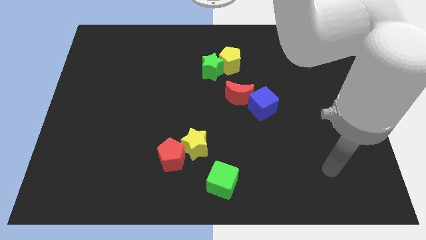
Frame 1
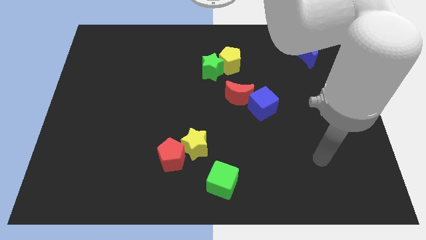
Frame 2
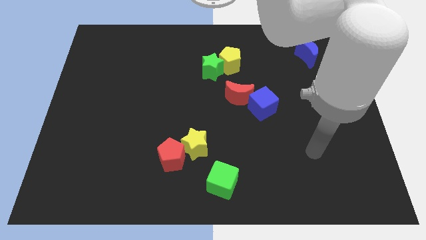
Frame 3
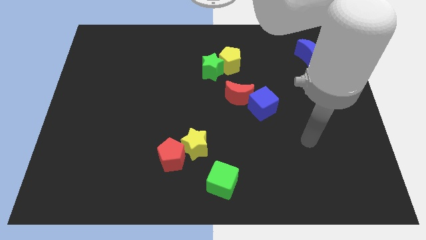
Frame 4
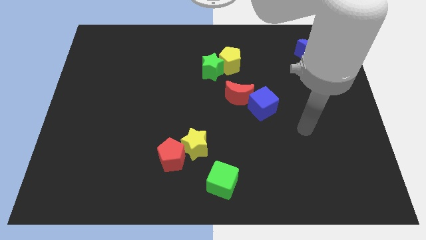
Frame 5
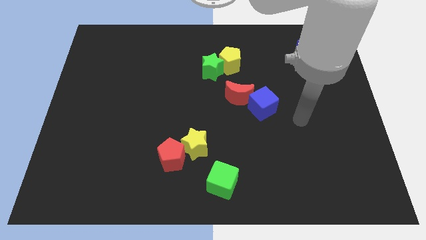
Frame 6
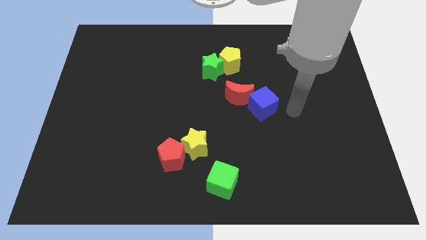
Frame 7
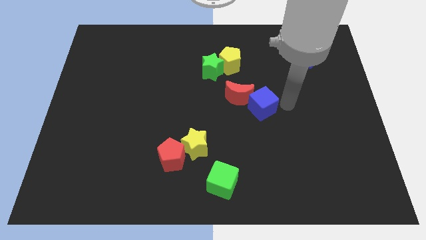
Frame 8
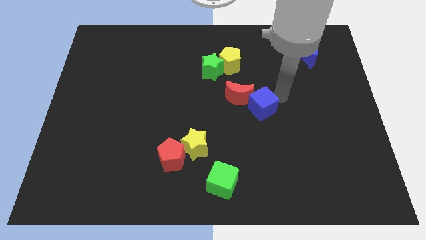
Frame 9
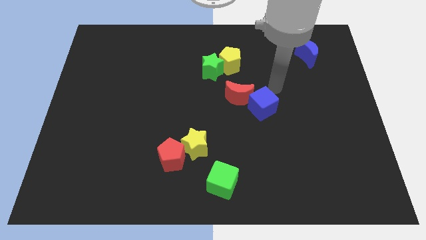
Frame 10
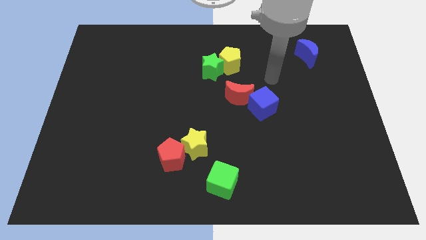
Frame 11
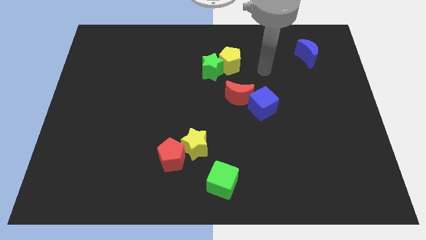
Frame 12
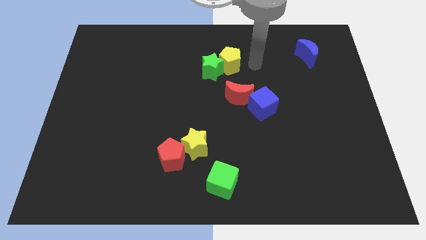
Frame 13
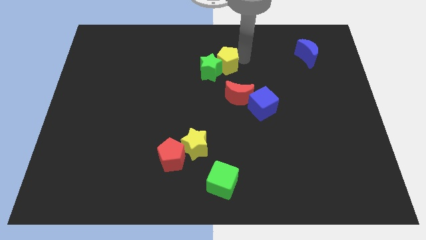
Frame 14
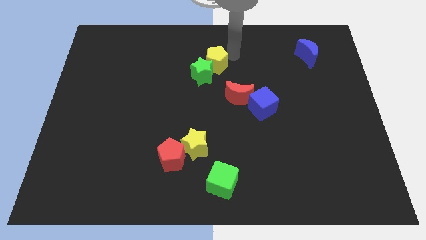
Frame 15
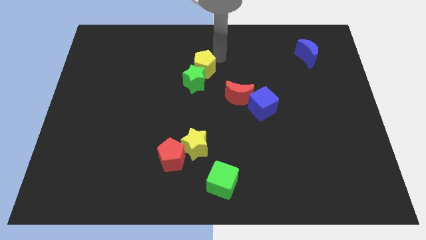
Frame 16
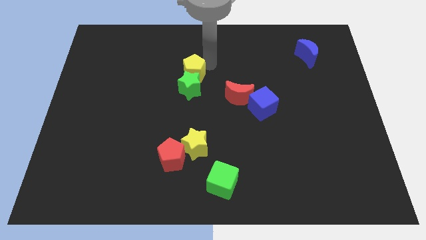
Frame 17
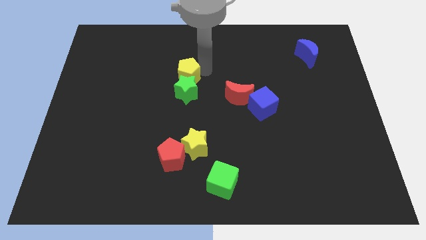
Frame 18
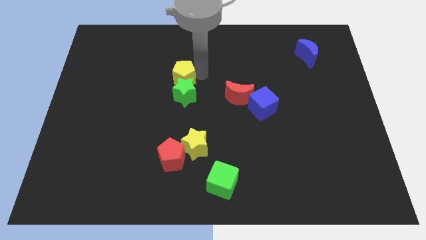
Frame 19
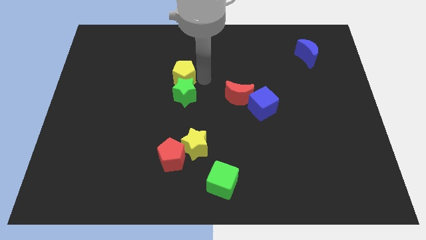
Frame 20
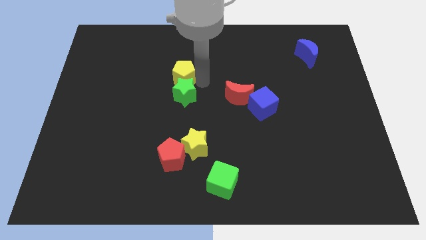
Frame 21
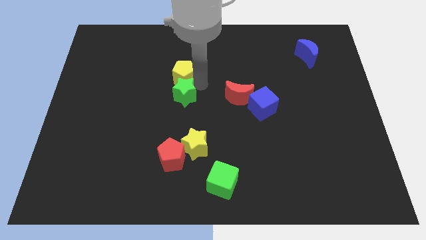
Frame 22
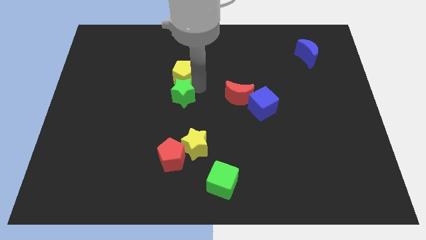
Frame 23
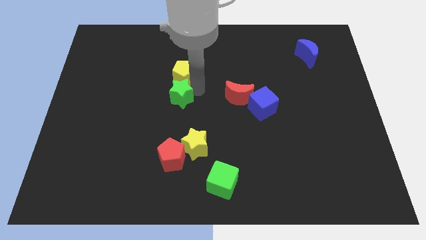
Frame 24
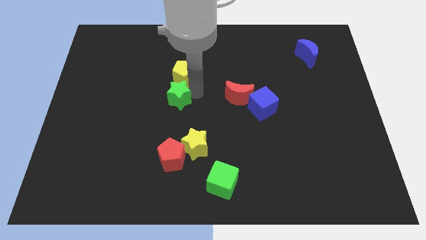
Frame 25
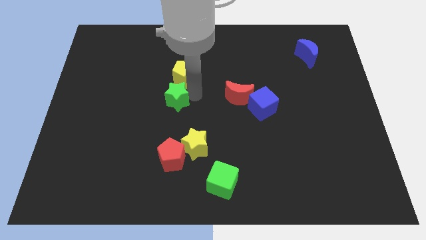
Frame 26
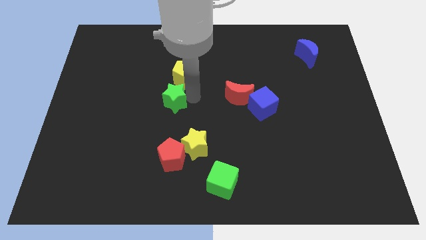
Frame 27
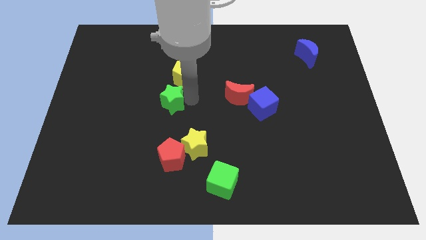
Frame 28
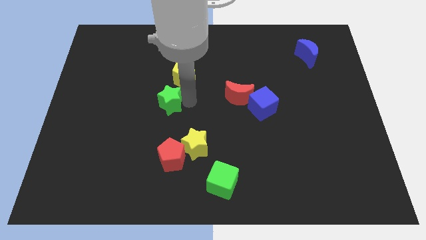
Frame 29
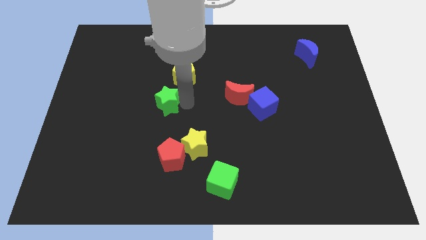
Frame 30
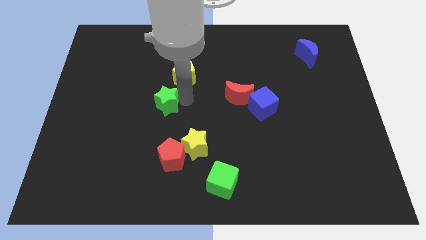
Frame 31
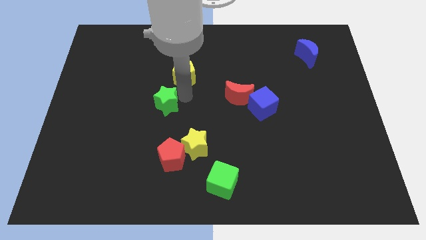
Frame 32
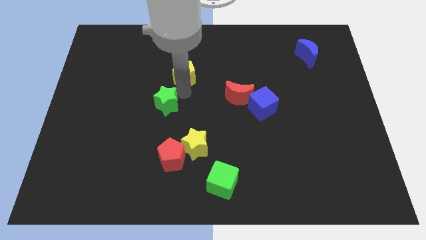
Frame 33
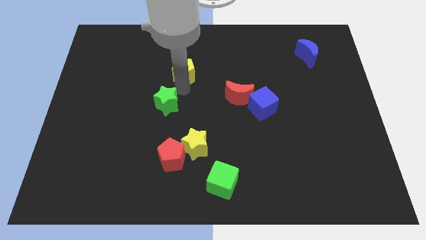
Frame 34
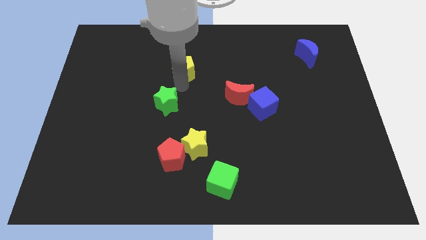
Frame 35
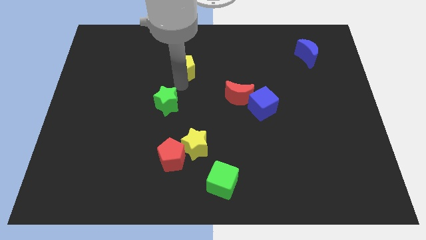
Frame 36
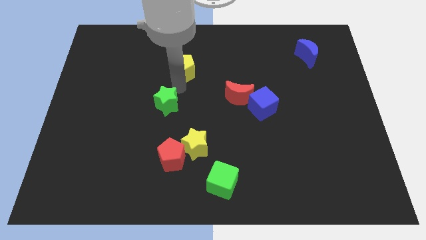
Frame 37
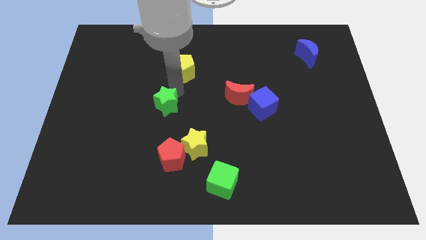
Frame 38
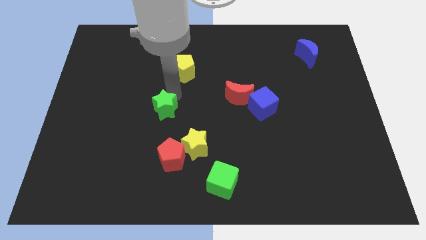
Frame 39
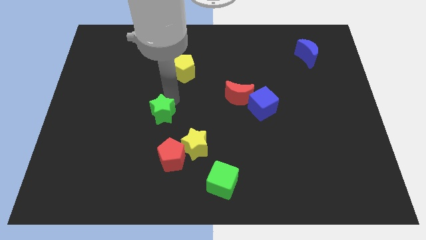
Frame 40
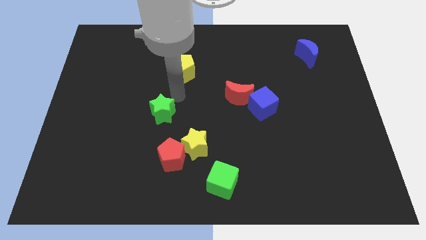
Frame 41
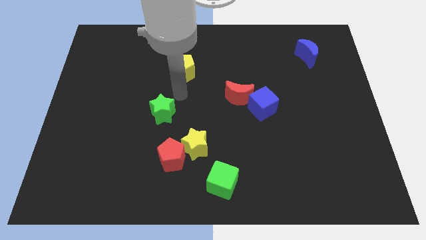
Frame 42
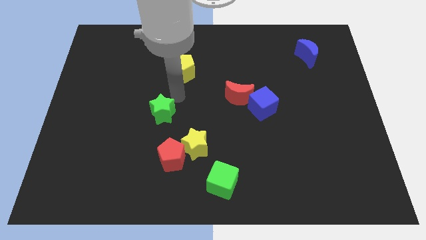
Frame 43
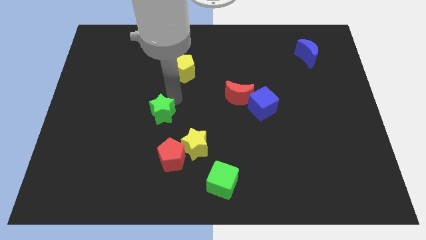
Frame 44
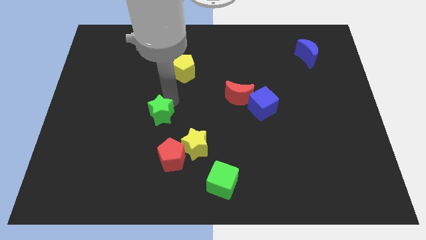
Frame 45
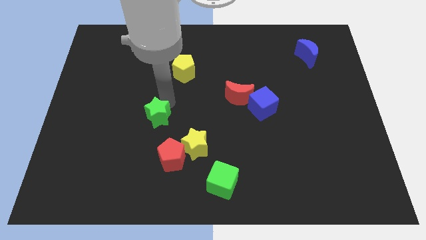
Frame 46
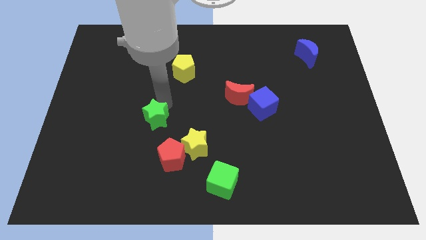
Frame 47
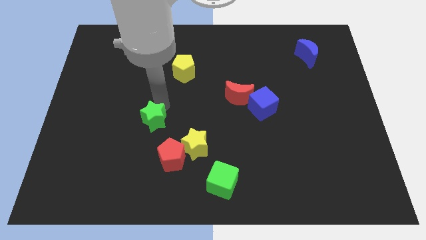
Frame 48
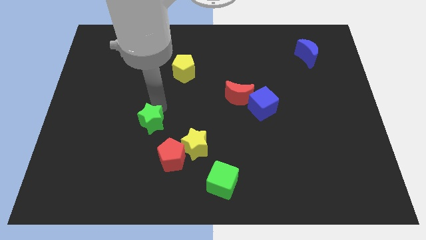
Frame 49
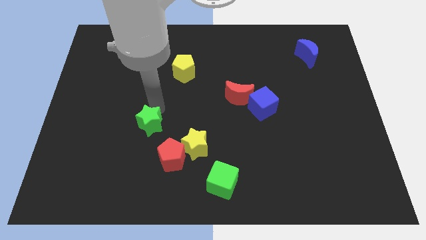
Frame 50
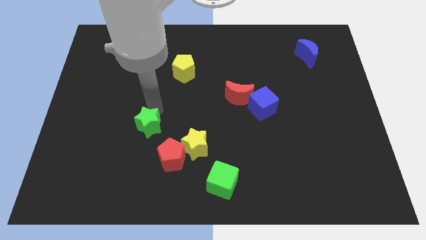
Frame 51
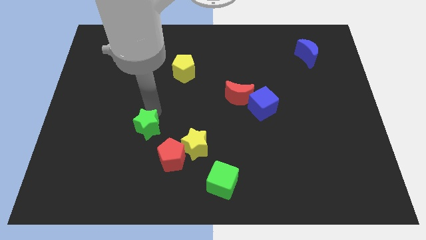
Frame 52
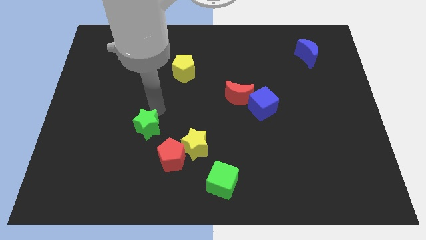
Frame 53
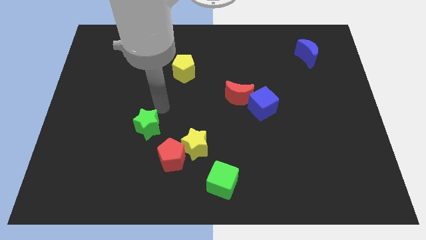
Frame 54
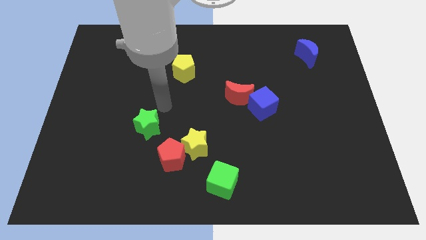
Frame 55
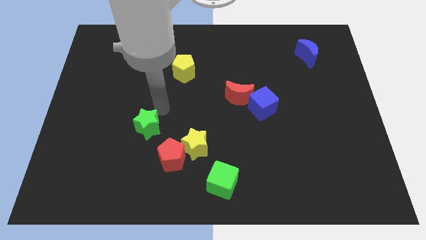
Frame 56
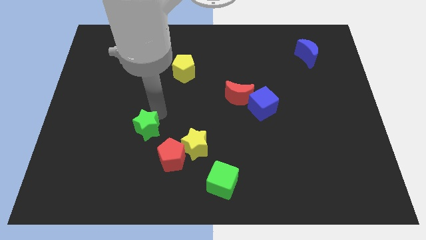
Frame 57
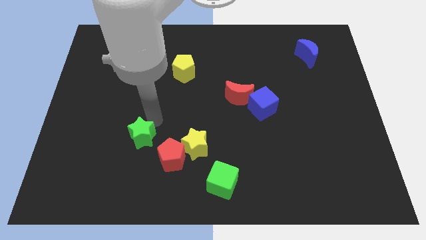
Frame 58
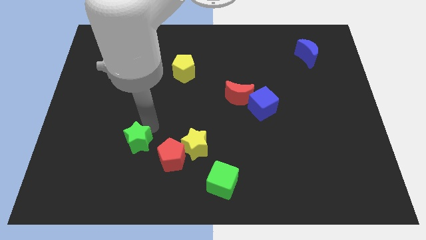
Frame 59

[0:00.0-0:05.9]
move the green star left of the red pentagon

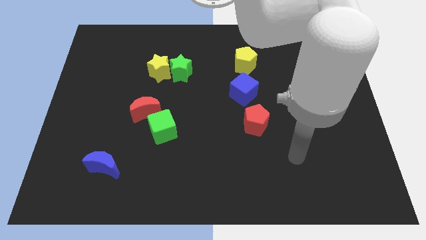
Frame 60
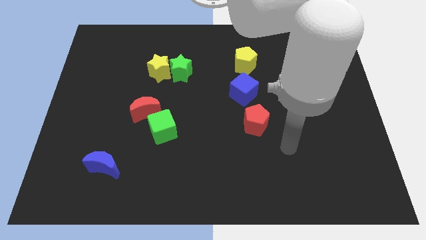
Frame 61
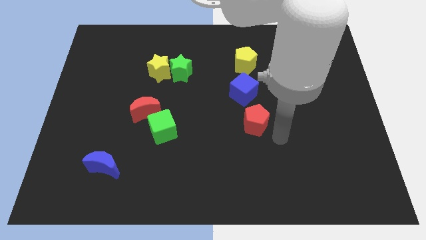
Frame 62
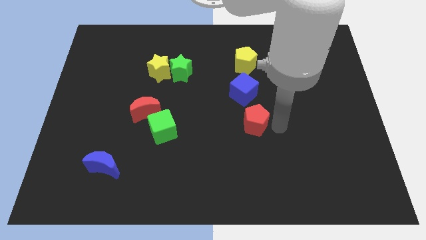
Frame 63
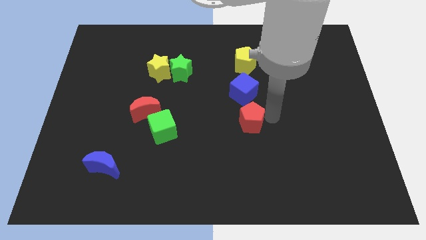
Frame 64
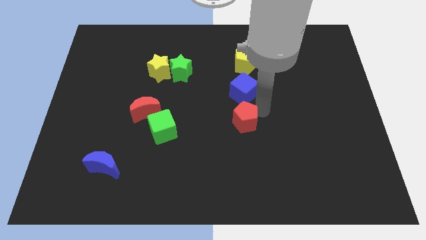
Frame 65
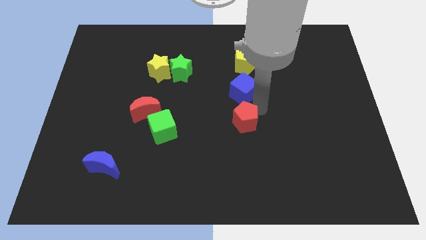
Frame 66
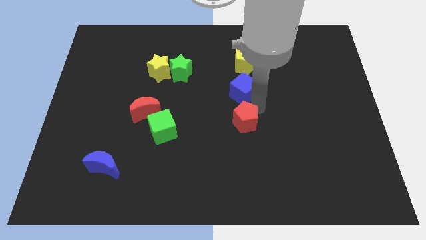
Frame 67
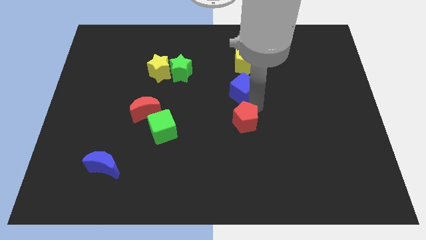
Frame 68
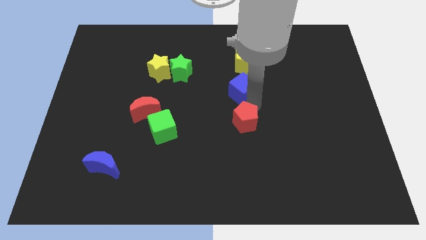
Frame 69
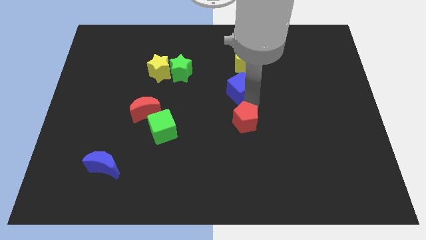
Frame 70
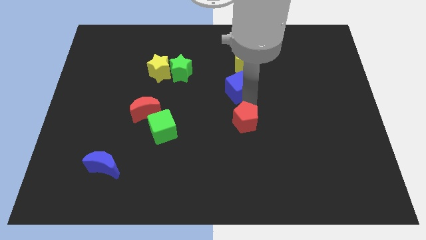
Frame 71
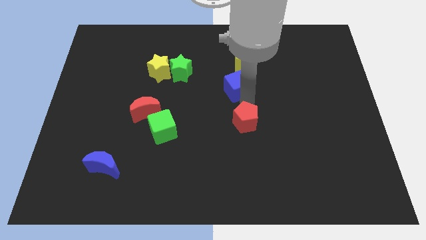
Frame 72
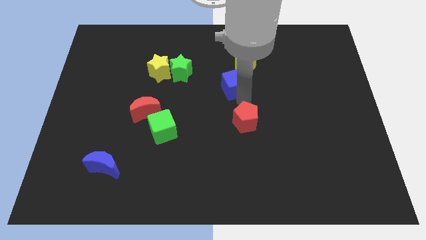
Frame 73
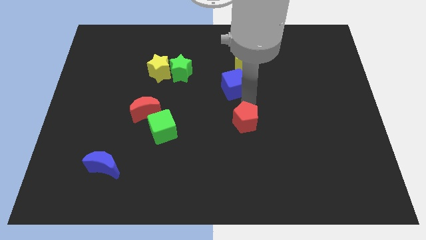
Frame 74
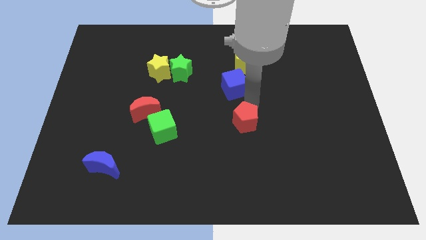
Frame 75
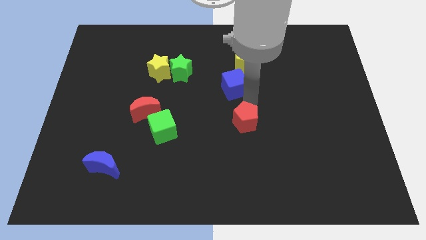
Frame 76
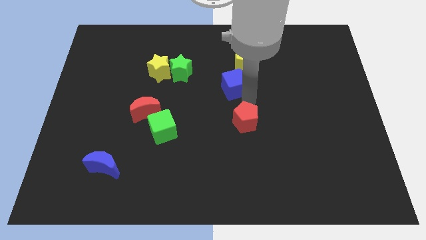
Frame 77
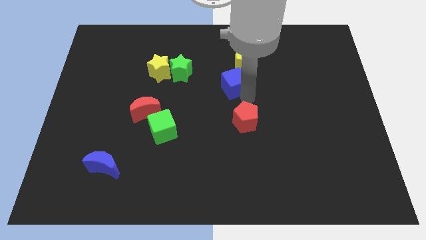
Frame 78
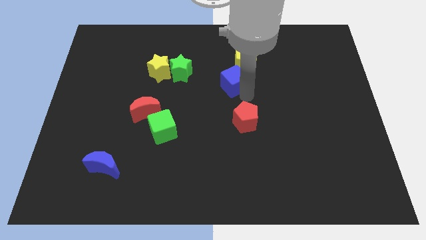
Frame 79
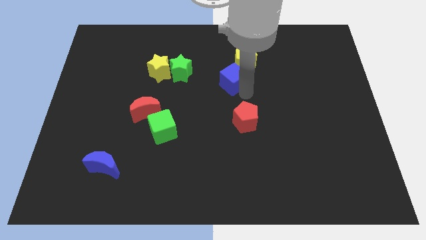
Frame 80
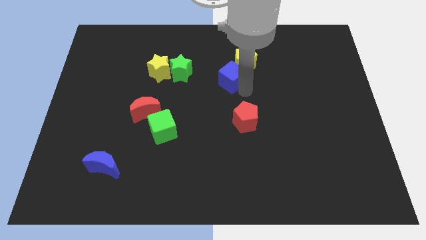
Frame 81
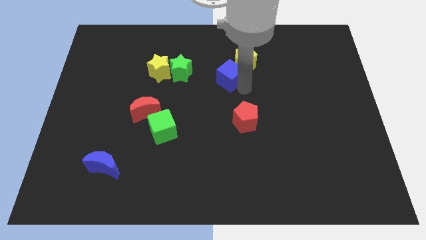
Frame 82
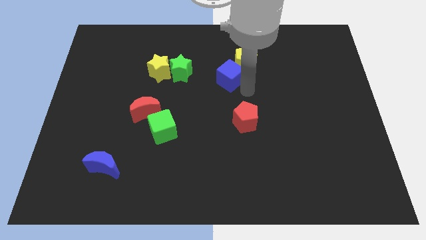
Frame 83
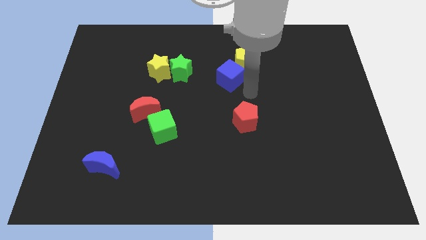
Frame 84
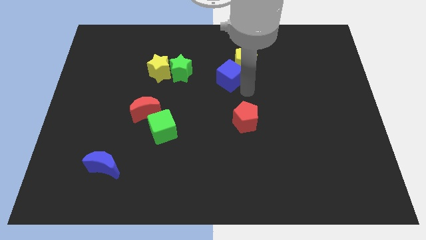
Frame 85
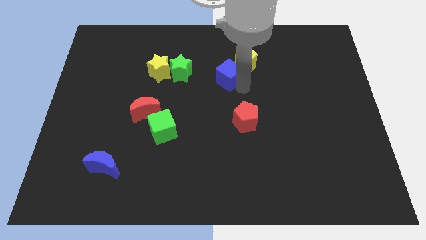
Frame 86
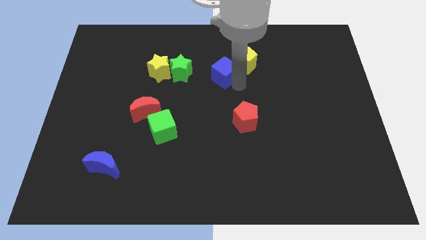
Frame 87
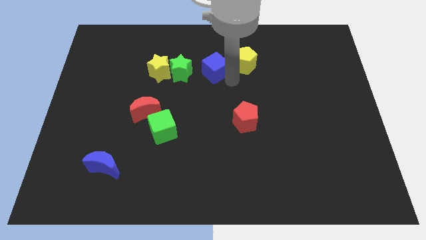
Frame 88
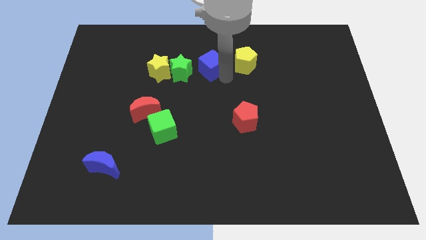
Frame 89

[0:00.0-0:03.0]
slide the blue cube to the top right of the green star
